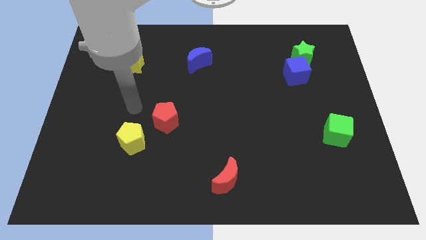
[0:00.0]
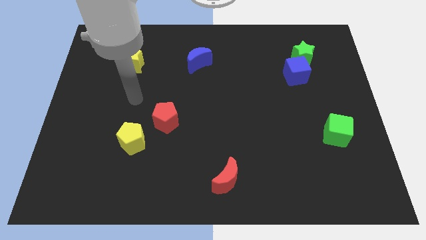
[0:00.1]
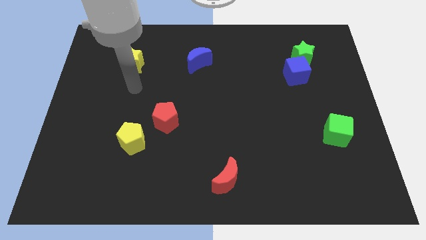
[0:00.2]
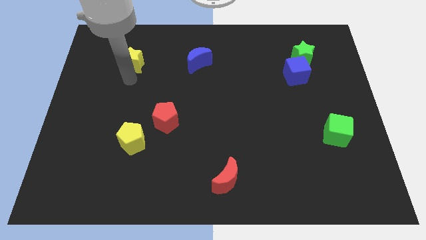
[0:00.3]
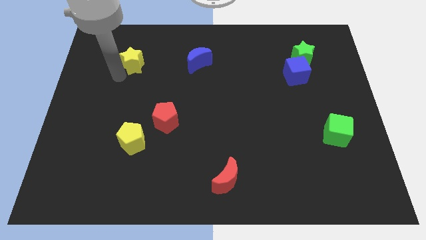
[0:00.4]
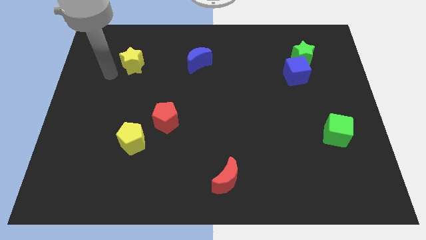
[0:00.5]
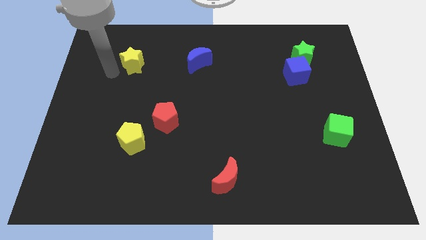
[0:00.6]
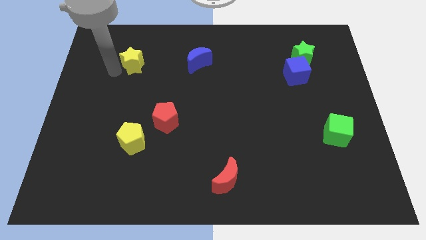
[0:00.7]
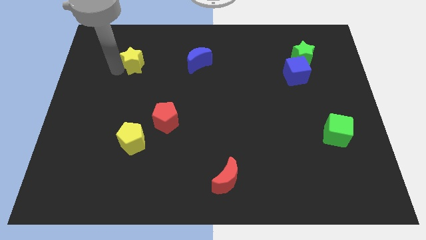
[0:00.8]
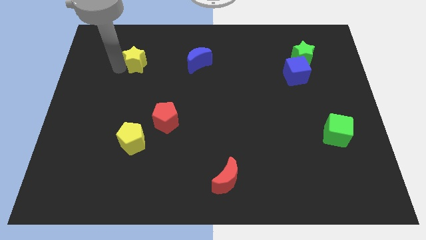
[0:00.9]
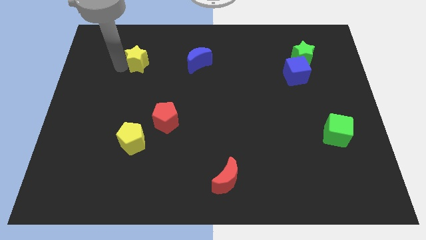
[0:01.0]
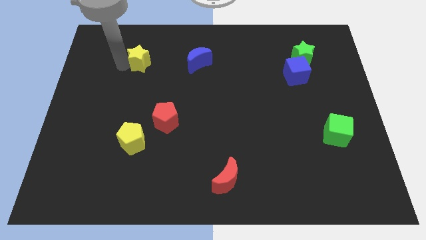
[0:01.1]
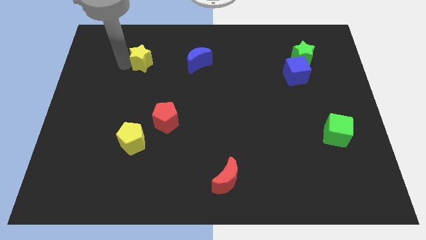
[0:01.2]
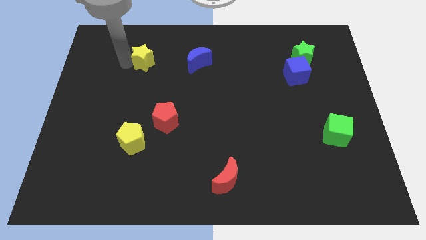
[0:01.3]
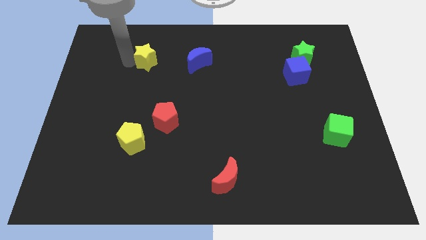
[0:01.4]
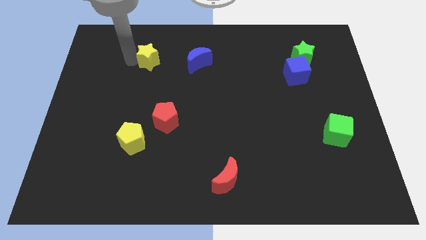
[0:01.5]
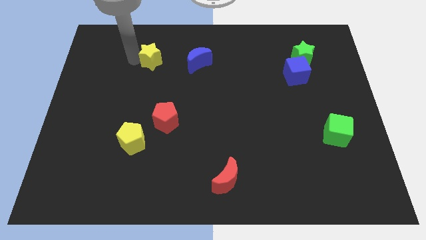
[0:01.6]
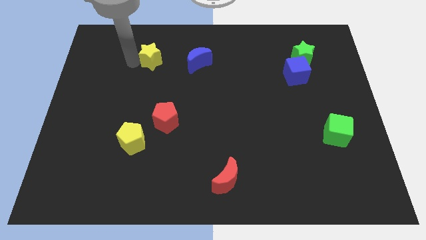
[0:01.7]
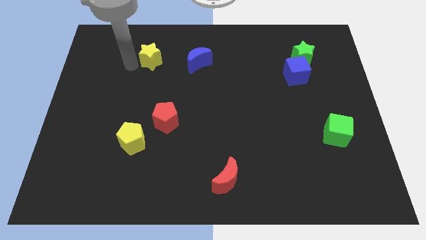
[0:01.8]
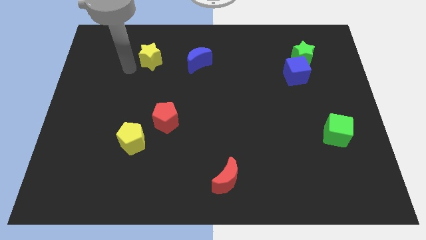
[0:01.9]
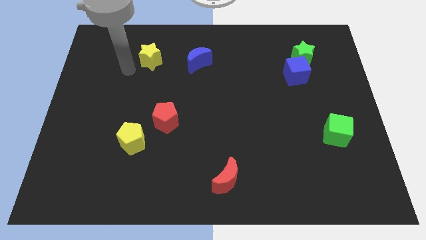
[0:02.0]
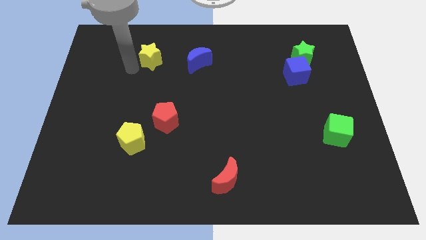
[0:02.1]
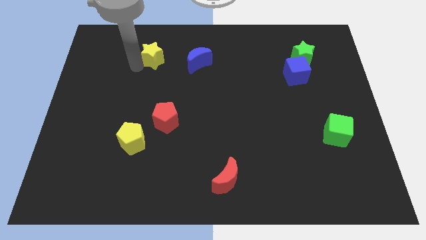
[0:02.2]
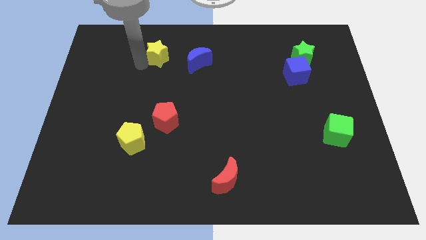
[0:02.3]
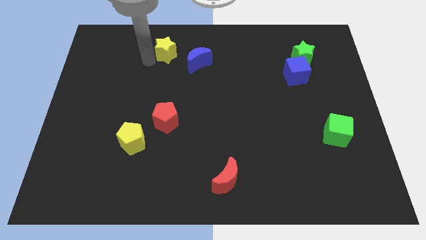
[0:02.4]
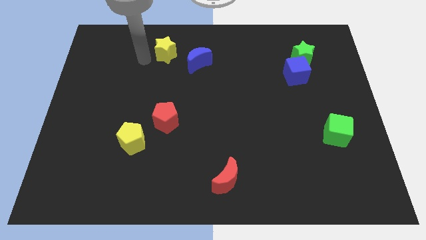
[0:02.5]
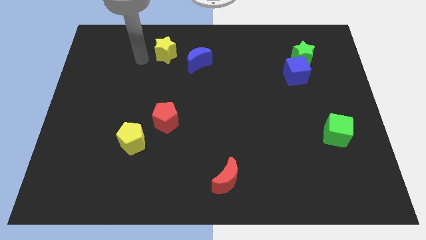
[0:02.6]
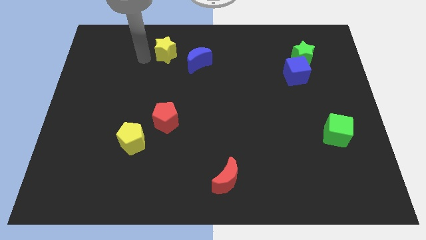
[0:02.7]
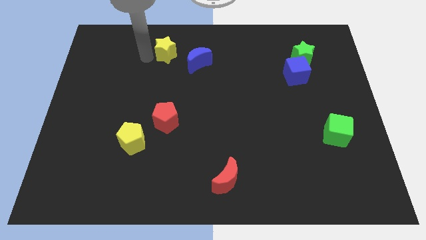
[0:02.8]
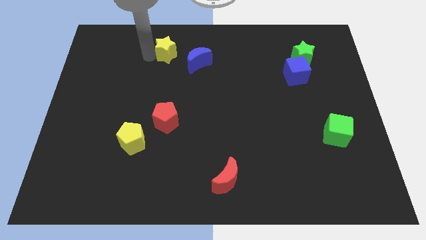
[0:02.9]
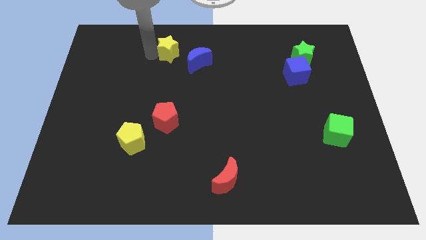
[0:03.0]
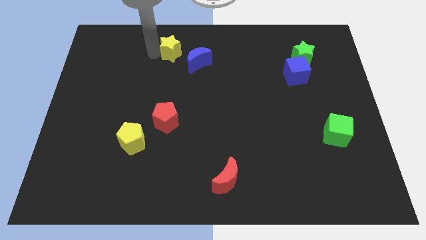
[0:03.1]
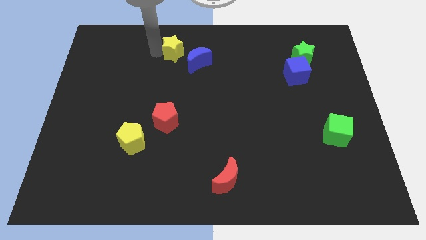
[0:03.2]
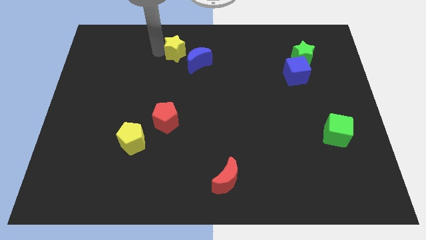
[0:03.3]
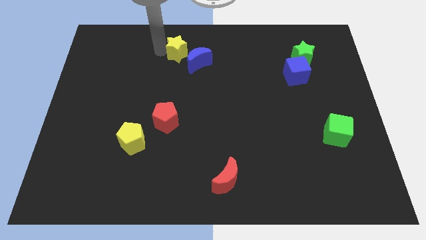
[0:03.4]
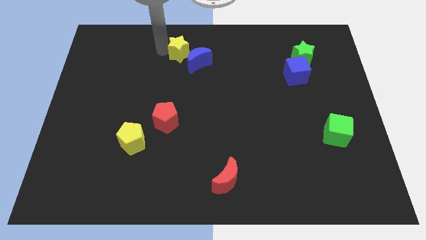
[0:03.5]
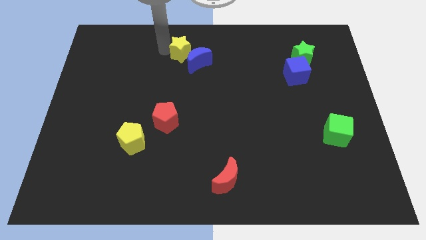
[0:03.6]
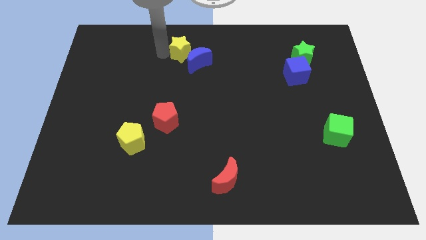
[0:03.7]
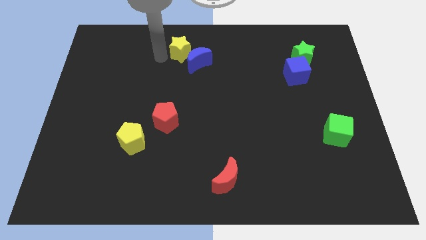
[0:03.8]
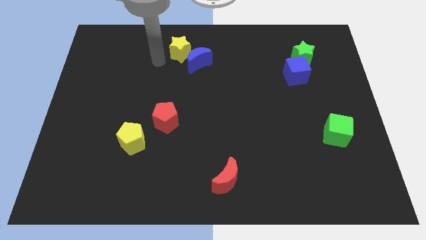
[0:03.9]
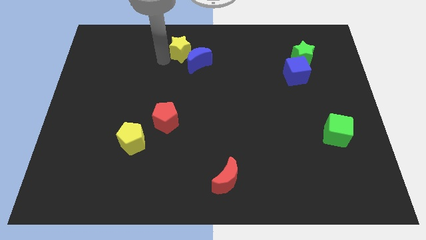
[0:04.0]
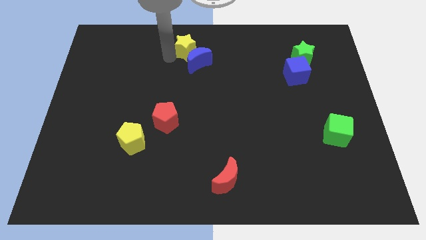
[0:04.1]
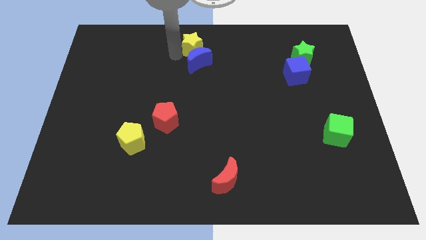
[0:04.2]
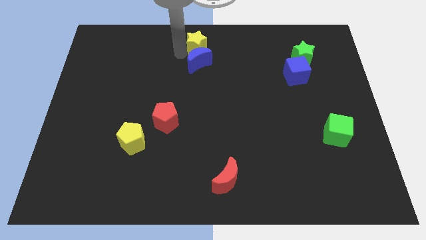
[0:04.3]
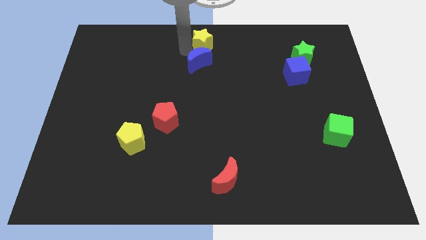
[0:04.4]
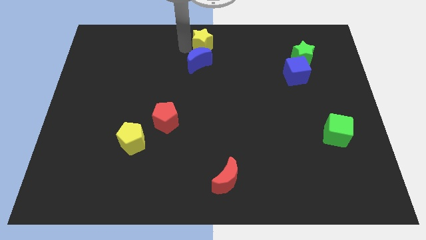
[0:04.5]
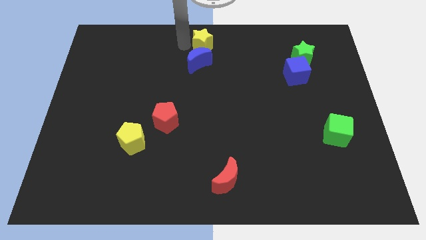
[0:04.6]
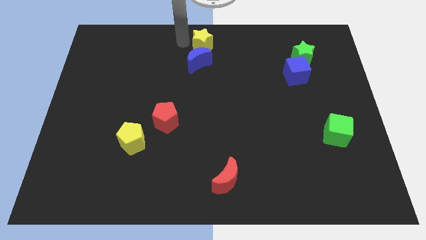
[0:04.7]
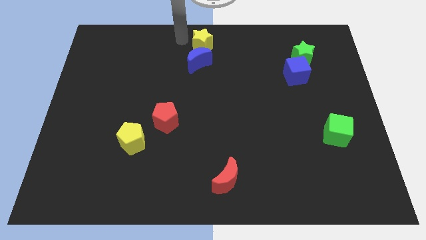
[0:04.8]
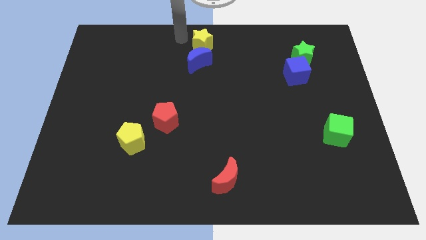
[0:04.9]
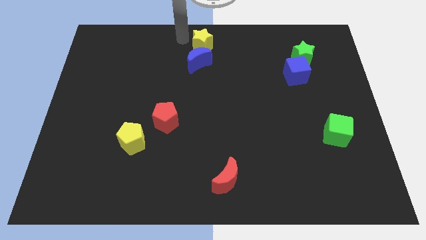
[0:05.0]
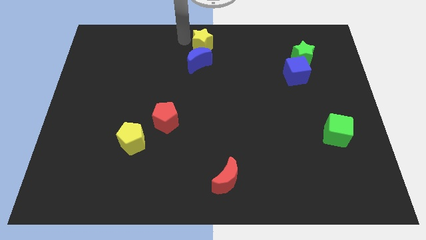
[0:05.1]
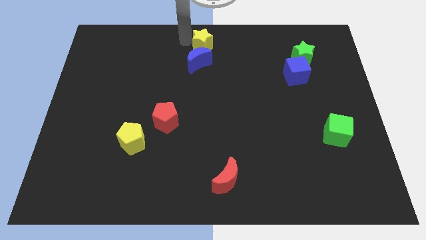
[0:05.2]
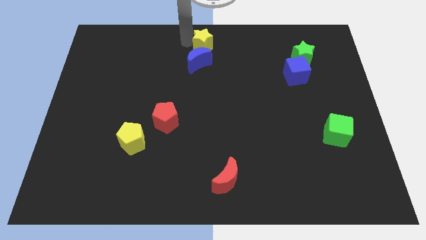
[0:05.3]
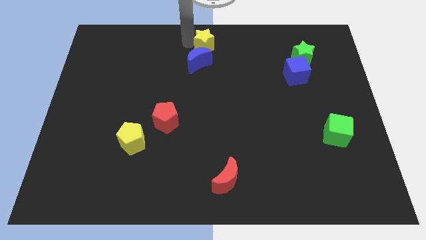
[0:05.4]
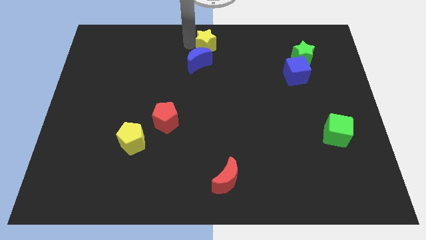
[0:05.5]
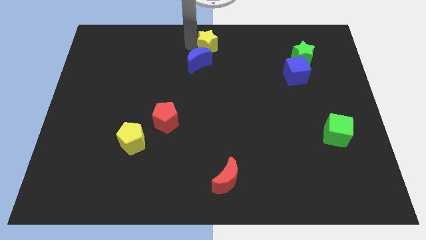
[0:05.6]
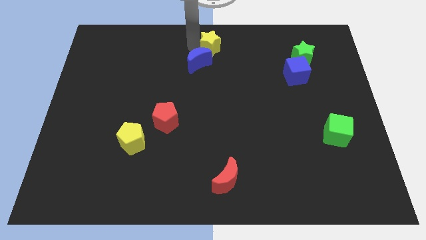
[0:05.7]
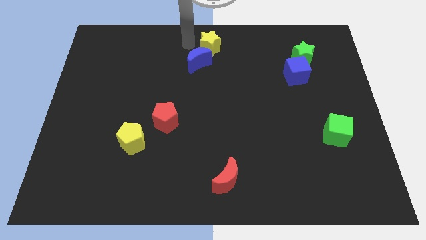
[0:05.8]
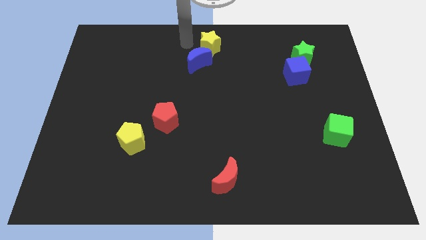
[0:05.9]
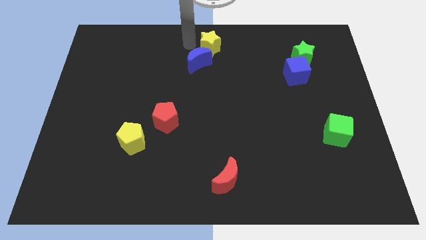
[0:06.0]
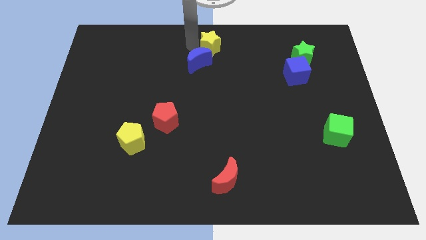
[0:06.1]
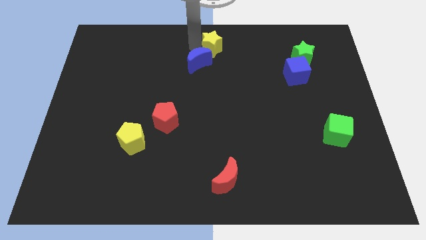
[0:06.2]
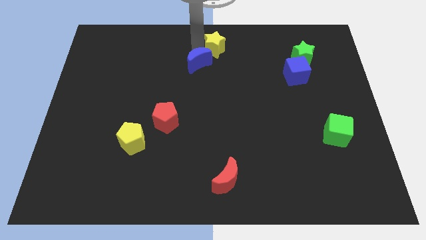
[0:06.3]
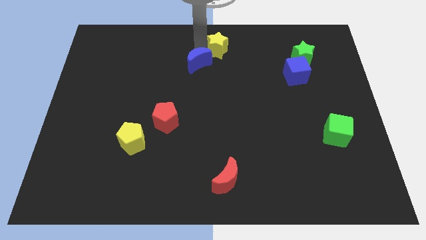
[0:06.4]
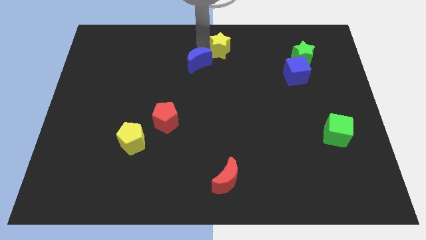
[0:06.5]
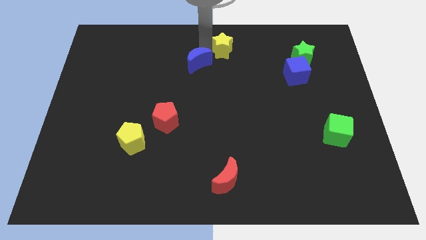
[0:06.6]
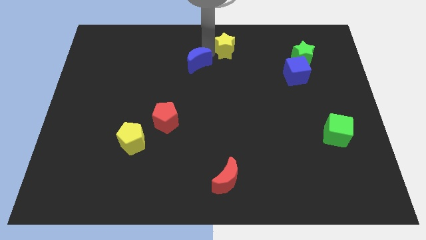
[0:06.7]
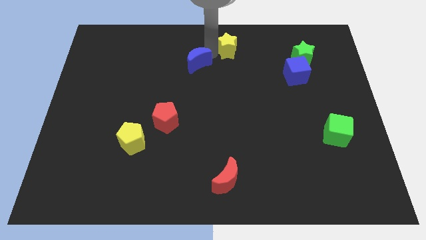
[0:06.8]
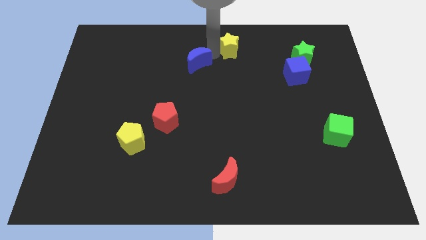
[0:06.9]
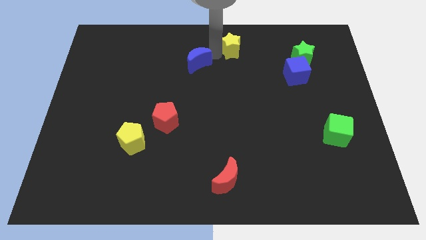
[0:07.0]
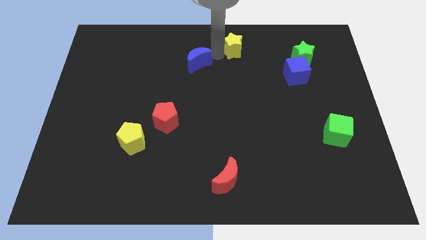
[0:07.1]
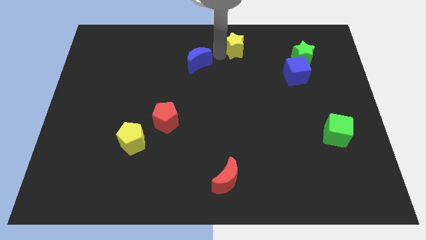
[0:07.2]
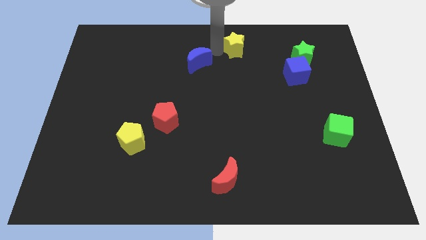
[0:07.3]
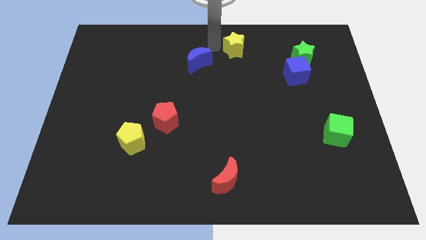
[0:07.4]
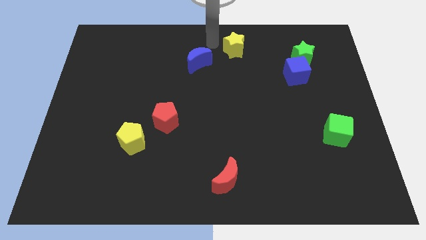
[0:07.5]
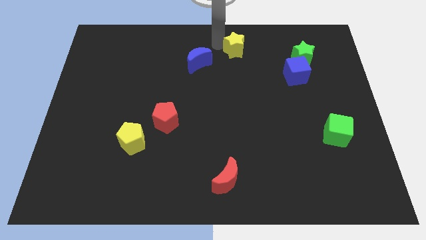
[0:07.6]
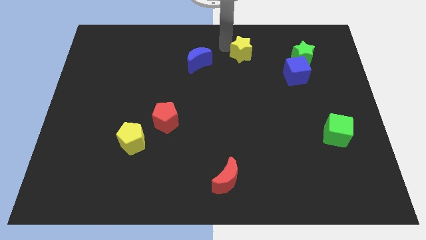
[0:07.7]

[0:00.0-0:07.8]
push the yellow star to the left of the green star
